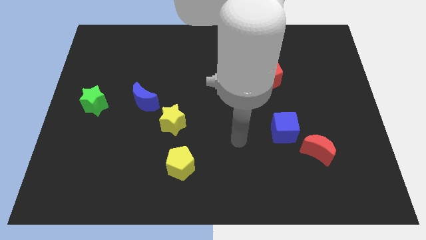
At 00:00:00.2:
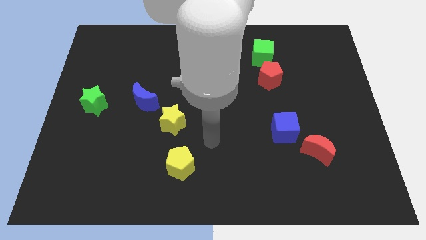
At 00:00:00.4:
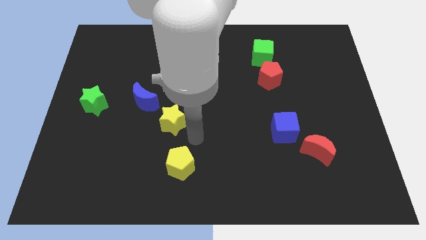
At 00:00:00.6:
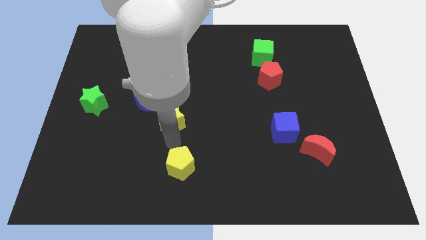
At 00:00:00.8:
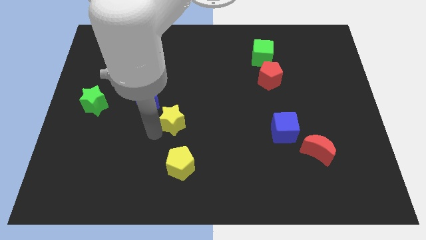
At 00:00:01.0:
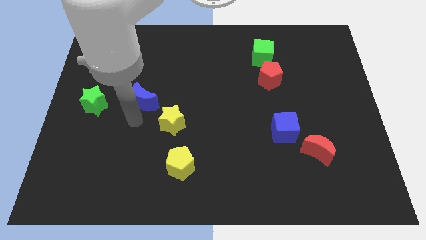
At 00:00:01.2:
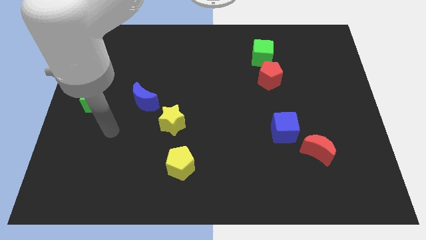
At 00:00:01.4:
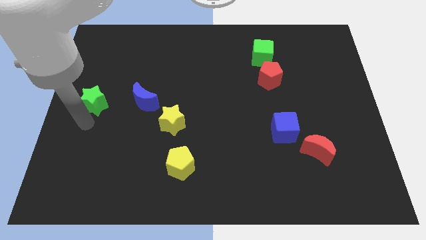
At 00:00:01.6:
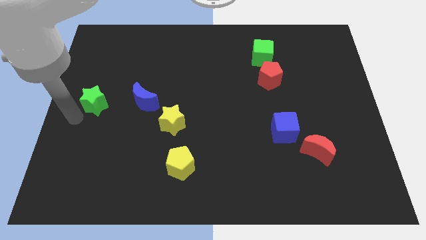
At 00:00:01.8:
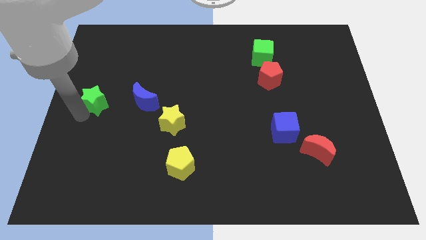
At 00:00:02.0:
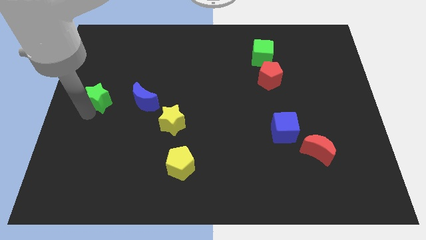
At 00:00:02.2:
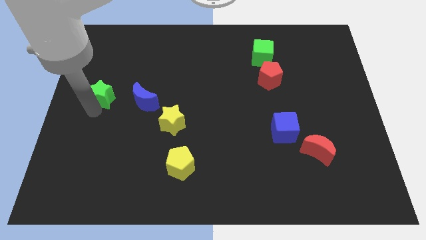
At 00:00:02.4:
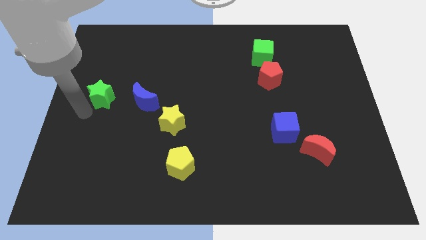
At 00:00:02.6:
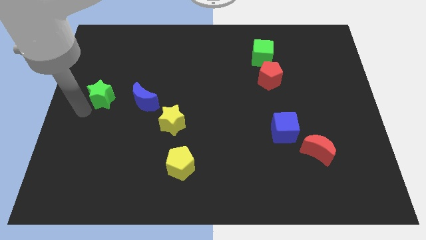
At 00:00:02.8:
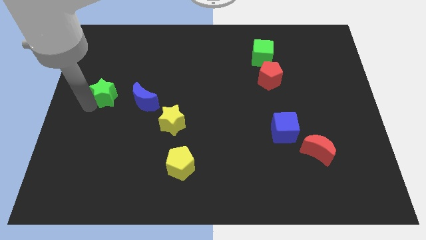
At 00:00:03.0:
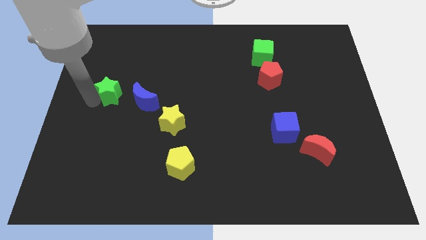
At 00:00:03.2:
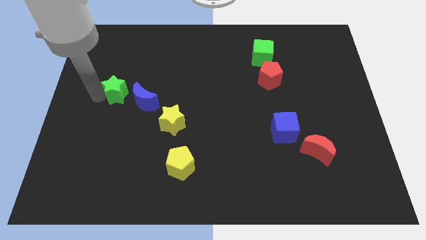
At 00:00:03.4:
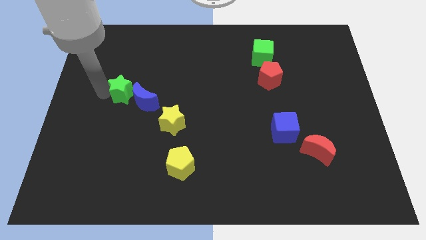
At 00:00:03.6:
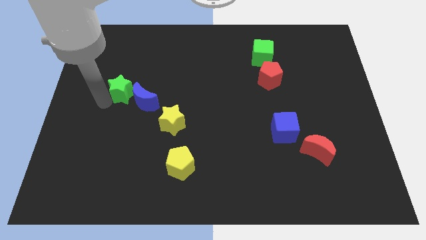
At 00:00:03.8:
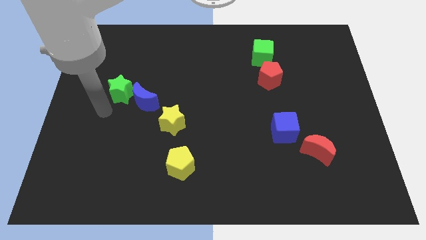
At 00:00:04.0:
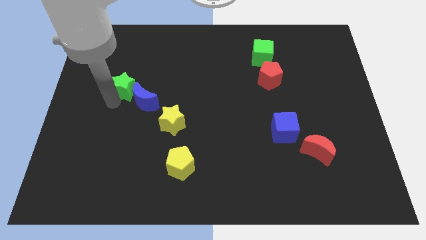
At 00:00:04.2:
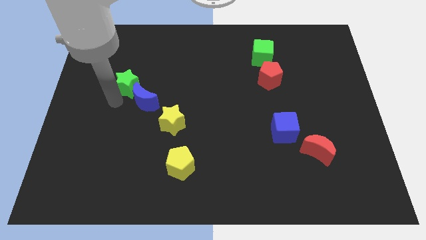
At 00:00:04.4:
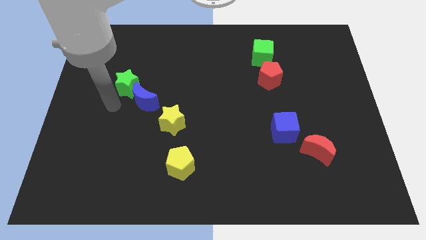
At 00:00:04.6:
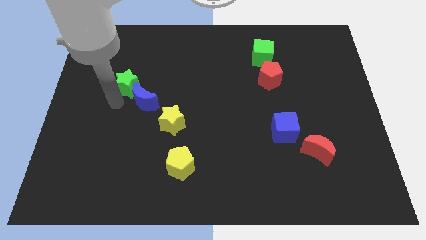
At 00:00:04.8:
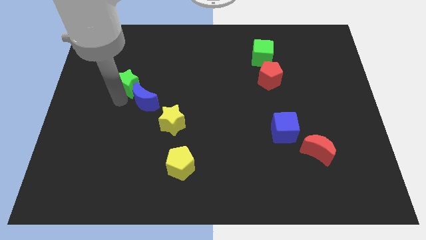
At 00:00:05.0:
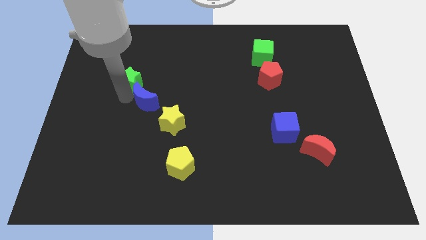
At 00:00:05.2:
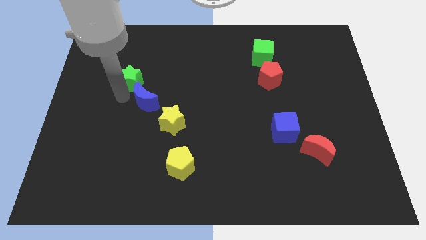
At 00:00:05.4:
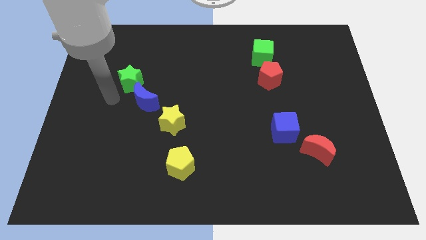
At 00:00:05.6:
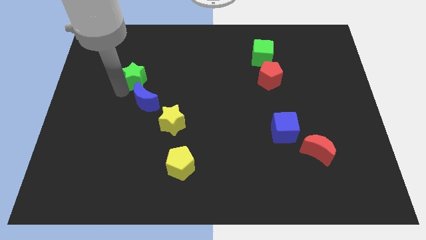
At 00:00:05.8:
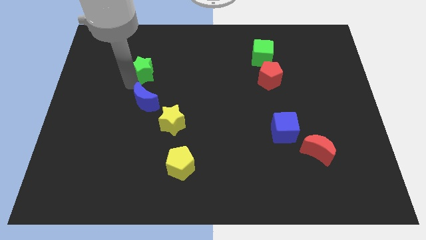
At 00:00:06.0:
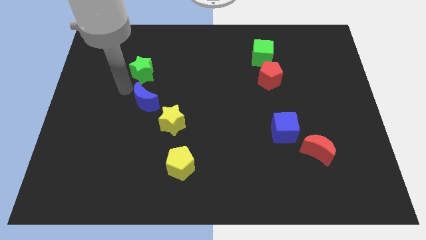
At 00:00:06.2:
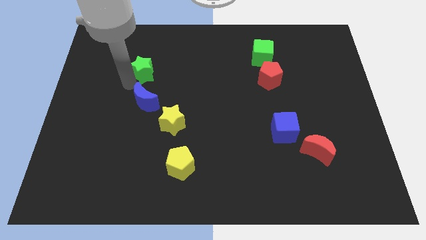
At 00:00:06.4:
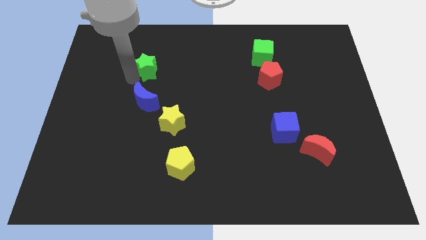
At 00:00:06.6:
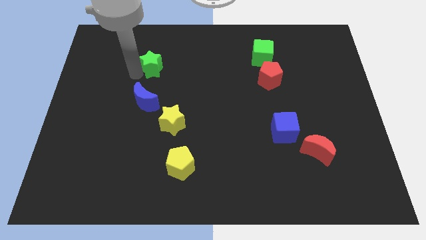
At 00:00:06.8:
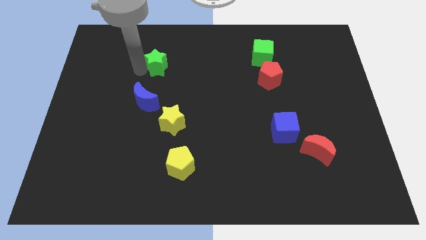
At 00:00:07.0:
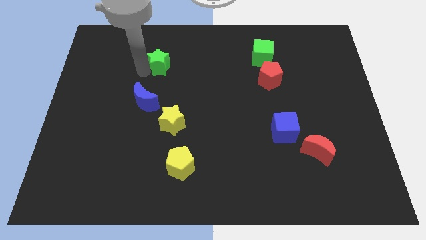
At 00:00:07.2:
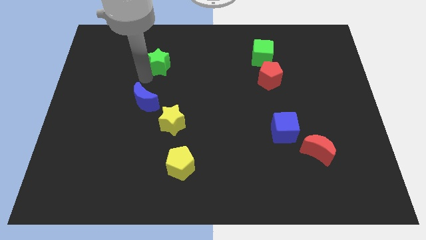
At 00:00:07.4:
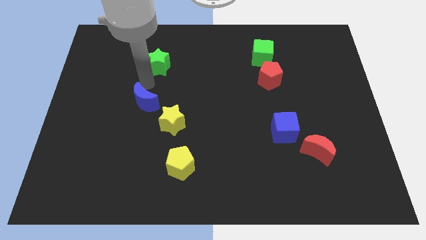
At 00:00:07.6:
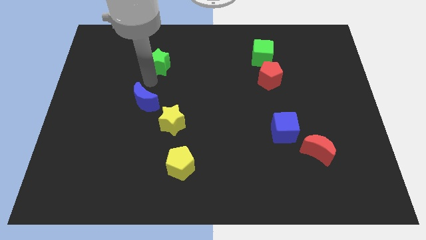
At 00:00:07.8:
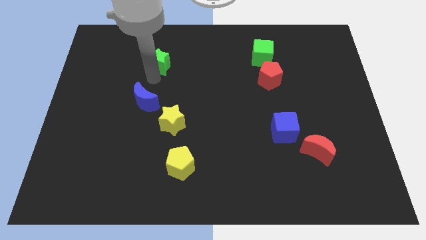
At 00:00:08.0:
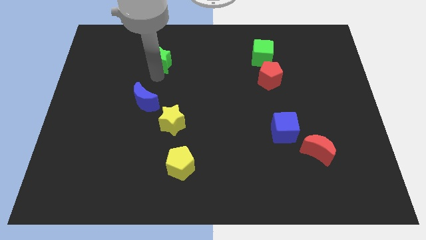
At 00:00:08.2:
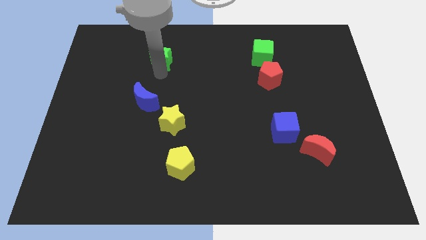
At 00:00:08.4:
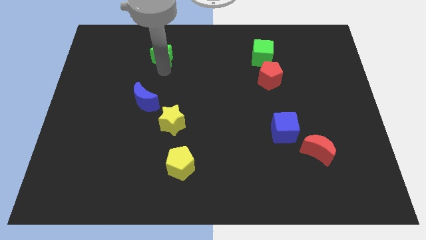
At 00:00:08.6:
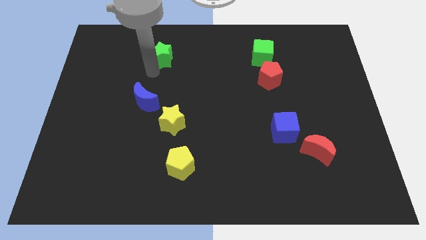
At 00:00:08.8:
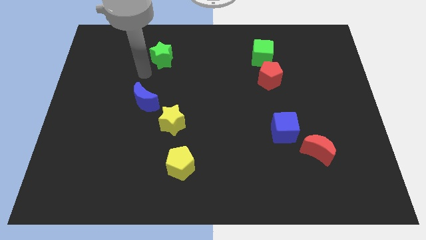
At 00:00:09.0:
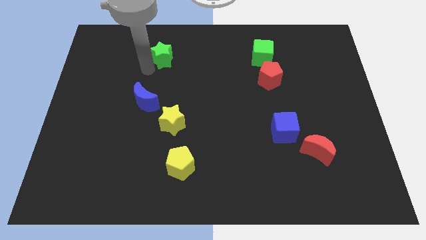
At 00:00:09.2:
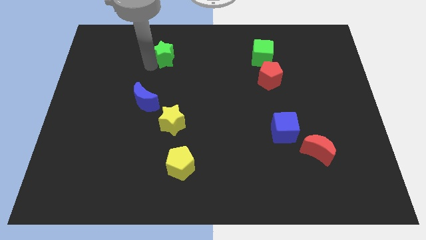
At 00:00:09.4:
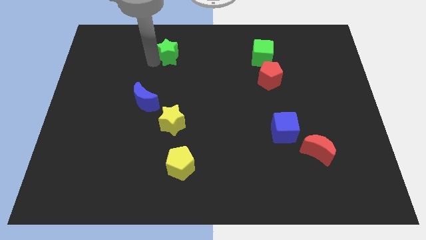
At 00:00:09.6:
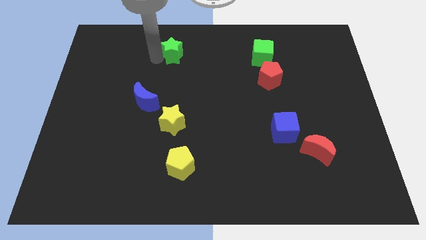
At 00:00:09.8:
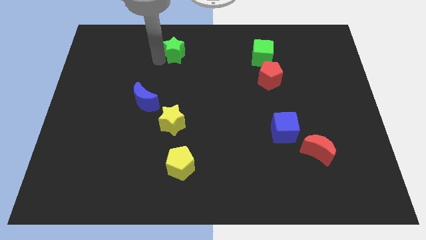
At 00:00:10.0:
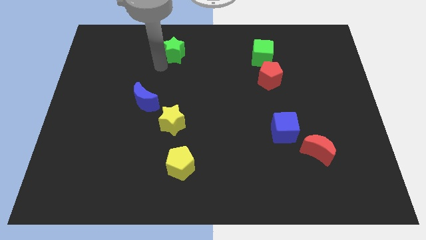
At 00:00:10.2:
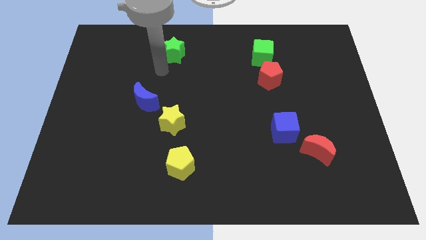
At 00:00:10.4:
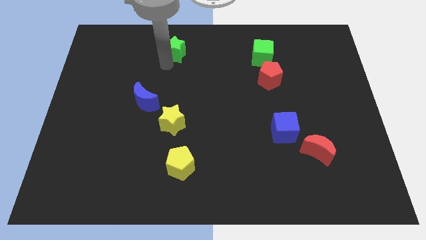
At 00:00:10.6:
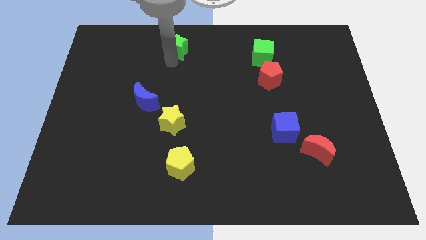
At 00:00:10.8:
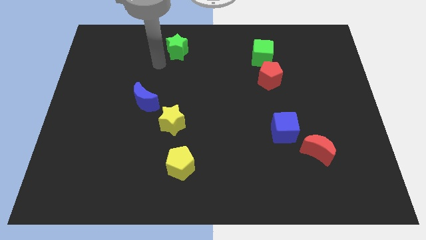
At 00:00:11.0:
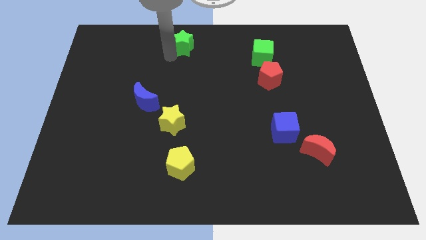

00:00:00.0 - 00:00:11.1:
move the green star to the top side
